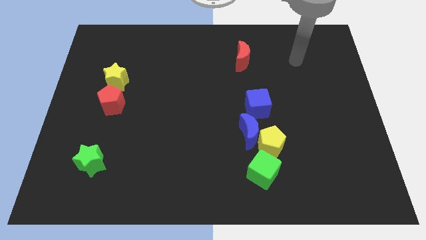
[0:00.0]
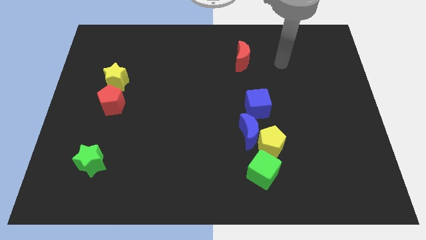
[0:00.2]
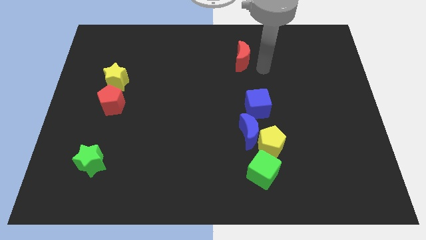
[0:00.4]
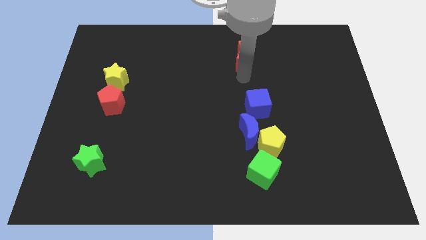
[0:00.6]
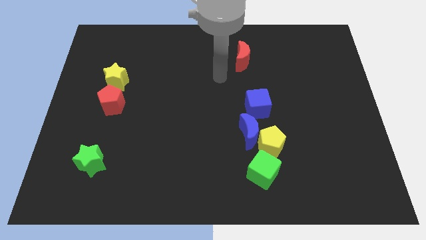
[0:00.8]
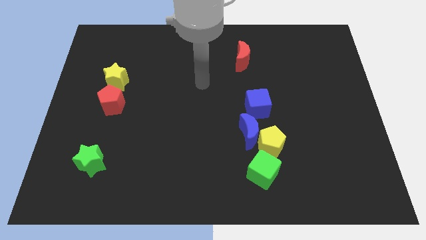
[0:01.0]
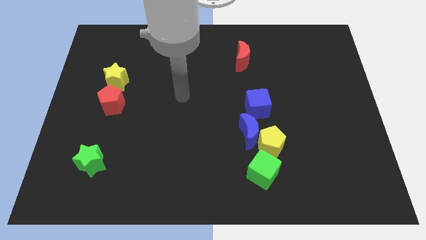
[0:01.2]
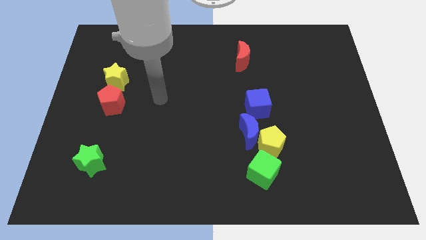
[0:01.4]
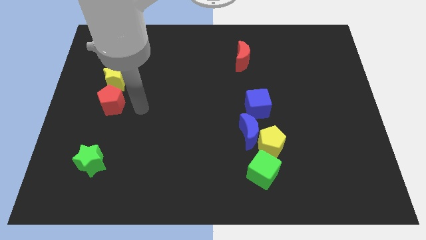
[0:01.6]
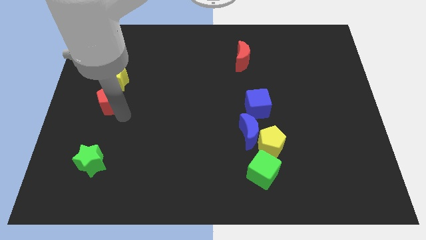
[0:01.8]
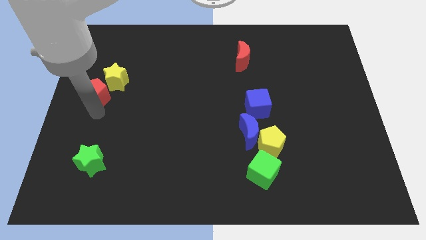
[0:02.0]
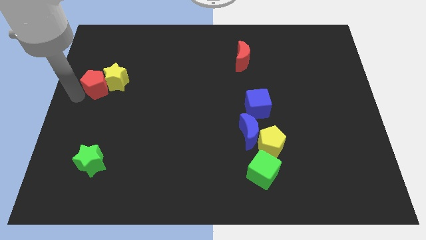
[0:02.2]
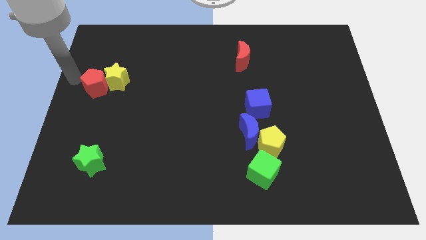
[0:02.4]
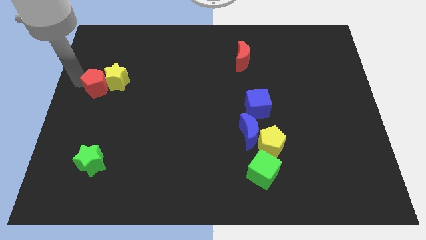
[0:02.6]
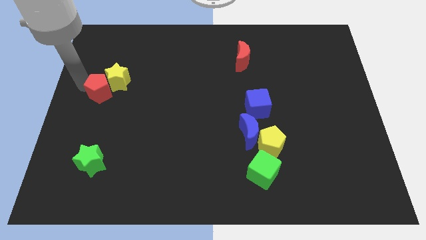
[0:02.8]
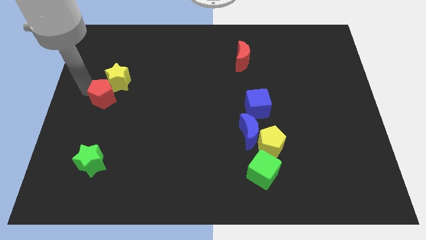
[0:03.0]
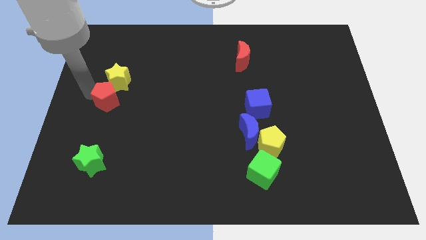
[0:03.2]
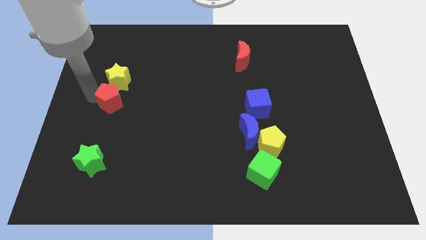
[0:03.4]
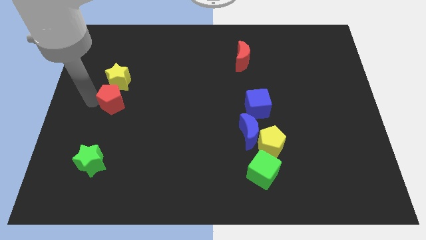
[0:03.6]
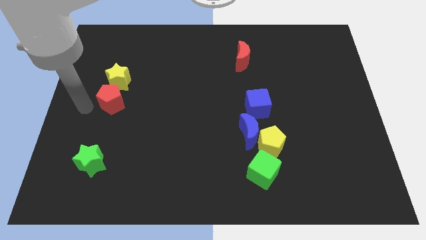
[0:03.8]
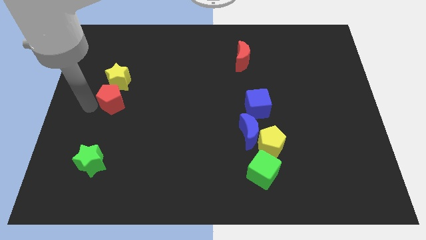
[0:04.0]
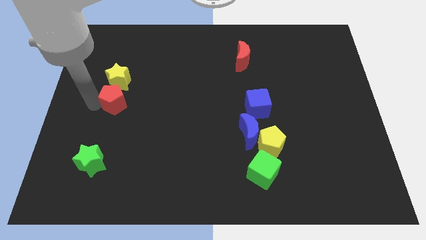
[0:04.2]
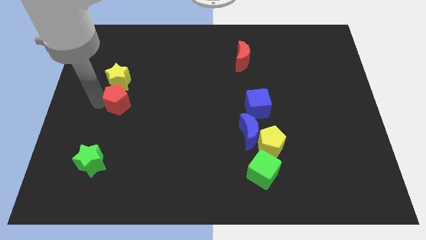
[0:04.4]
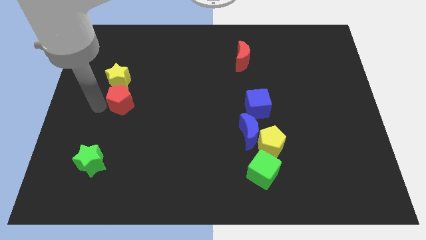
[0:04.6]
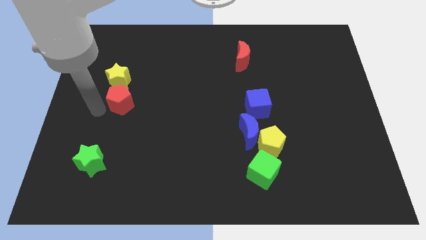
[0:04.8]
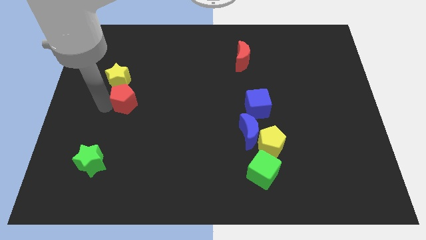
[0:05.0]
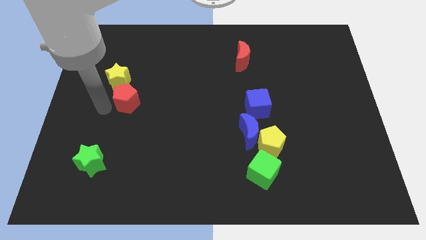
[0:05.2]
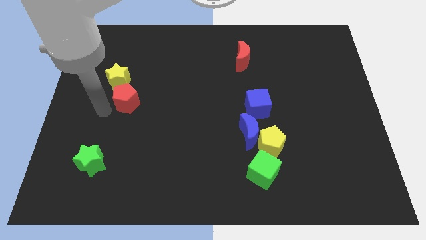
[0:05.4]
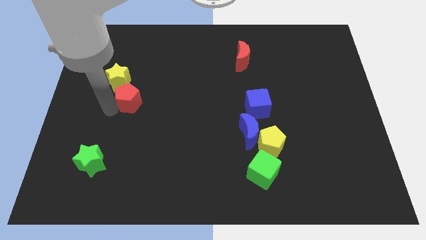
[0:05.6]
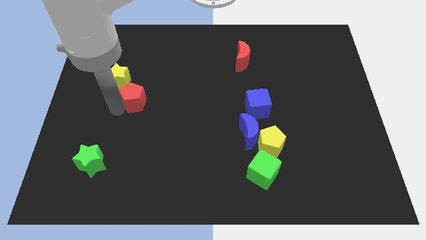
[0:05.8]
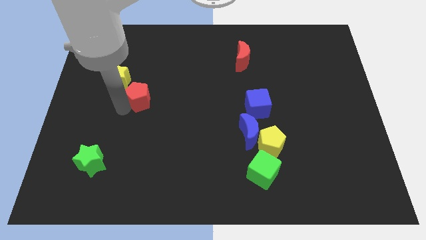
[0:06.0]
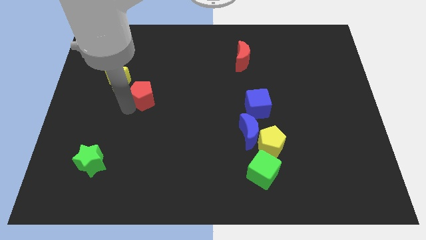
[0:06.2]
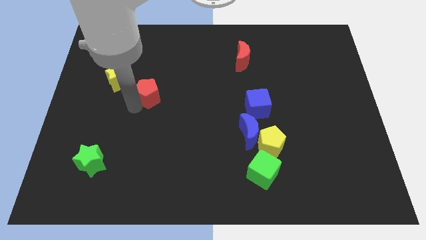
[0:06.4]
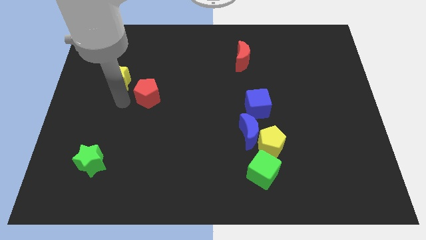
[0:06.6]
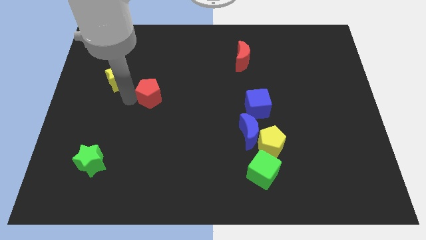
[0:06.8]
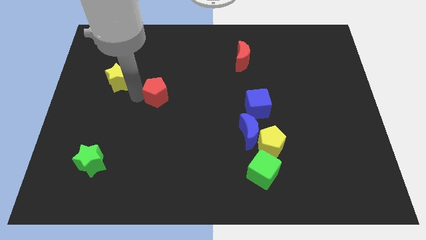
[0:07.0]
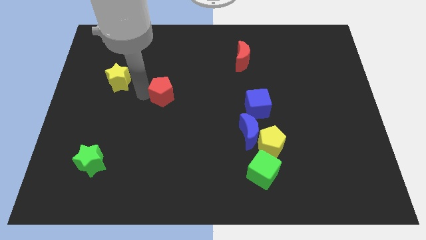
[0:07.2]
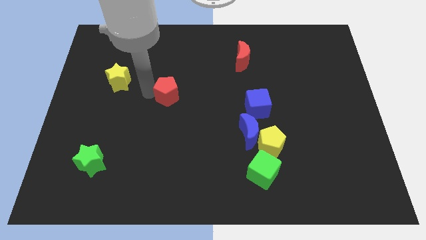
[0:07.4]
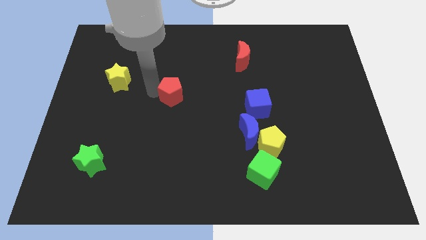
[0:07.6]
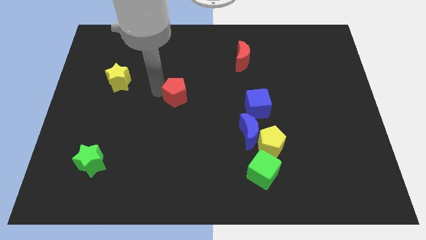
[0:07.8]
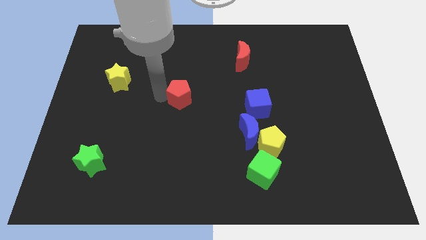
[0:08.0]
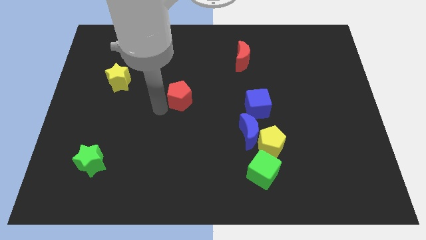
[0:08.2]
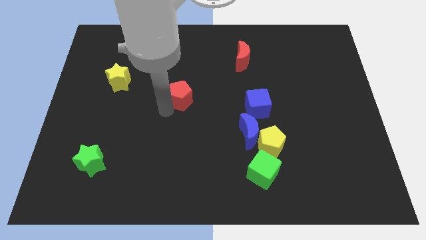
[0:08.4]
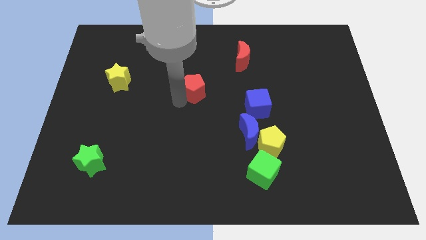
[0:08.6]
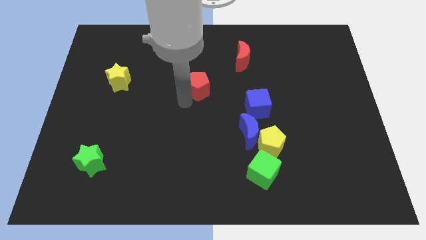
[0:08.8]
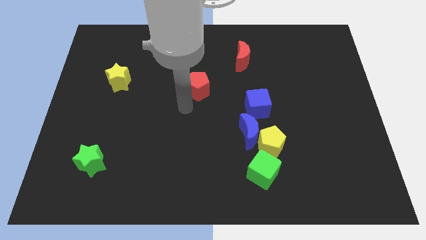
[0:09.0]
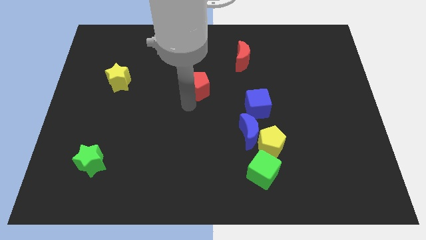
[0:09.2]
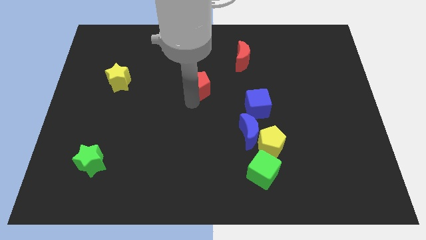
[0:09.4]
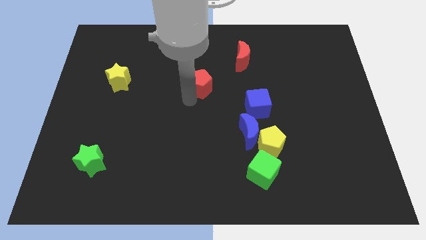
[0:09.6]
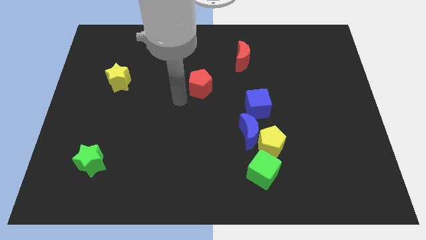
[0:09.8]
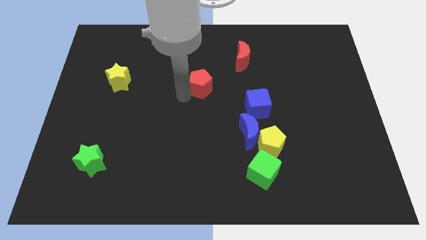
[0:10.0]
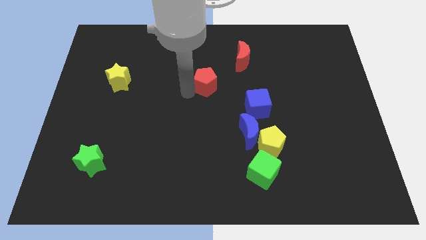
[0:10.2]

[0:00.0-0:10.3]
put the red pentagon diagonally down and to the left of the red moon

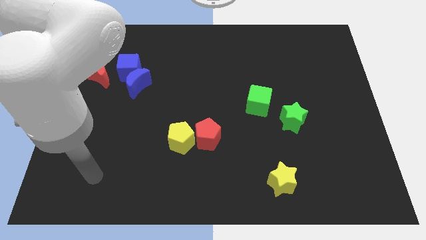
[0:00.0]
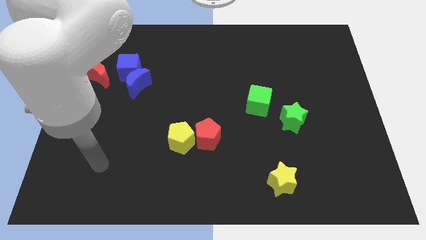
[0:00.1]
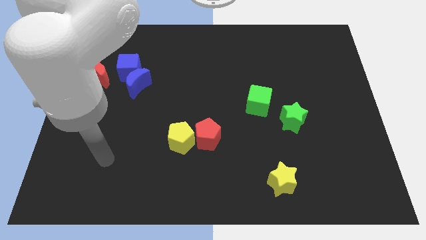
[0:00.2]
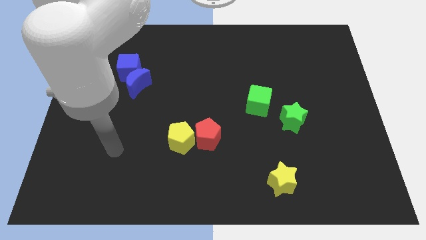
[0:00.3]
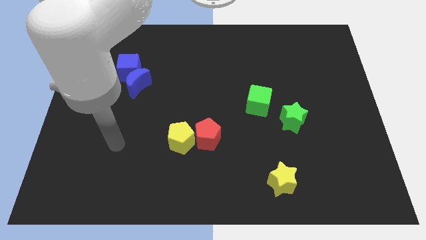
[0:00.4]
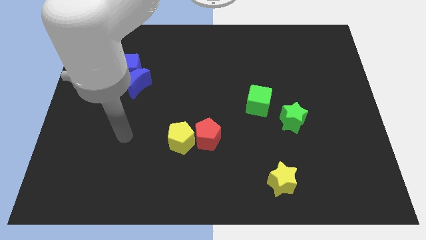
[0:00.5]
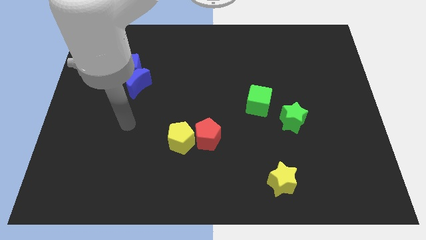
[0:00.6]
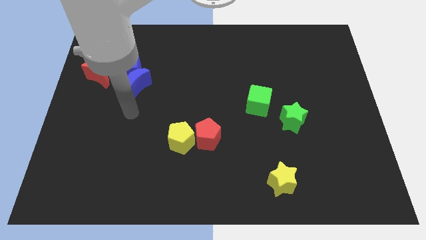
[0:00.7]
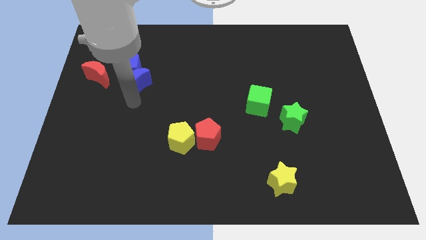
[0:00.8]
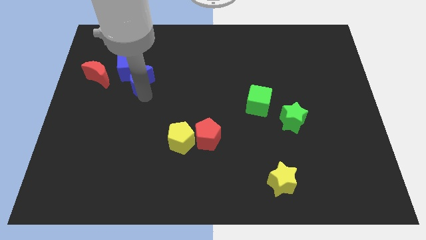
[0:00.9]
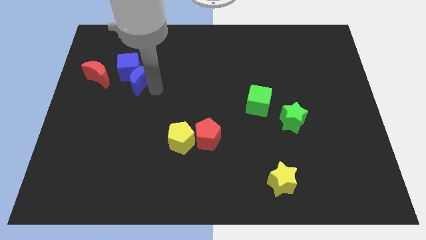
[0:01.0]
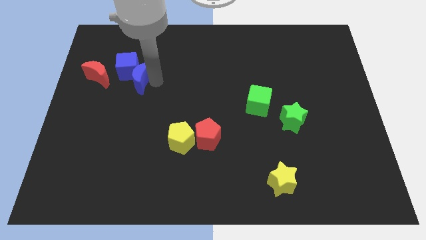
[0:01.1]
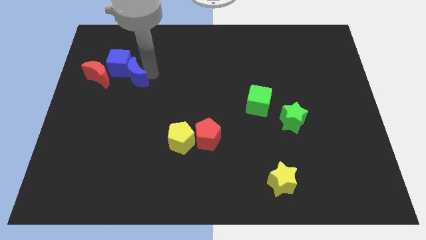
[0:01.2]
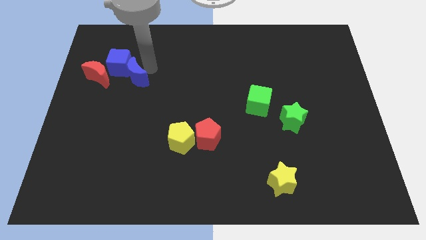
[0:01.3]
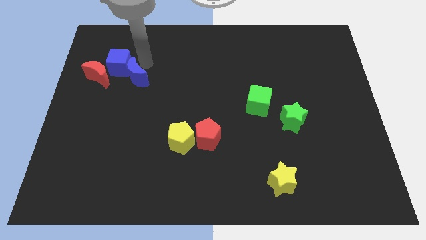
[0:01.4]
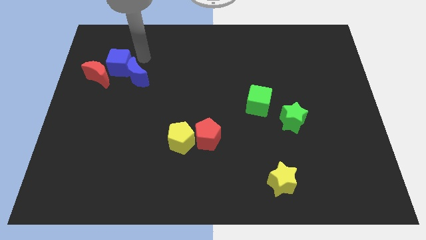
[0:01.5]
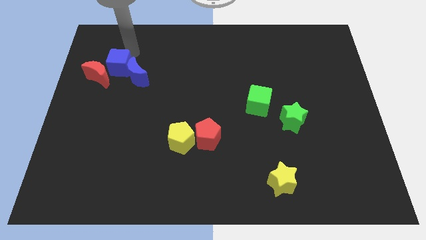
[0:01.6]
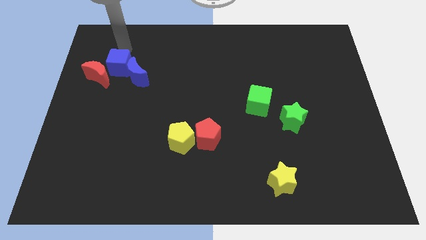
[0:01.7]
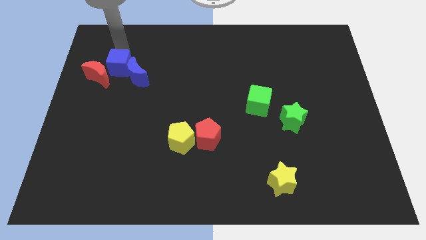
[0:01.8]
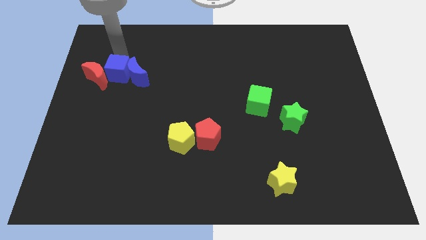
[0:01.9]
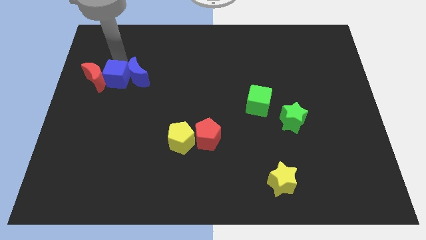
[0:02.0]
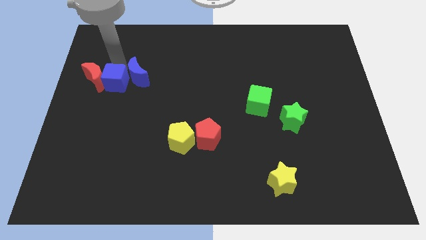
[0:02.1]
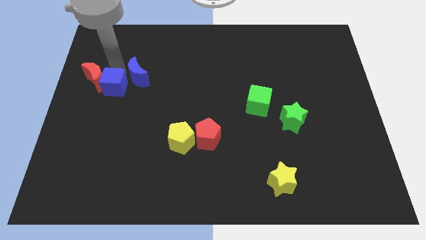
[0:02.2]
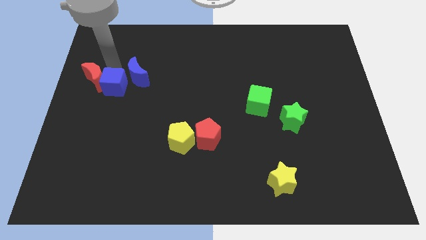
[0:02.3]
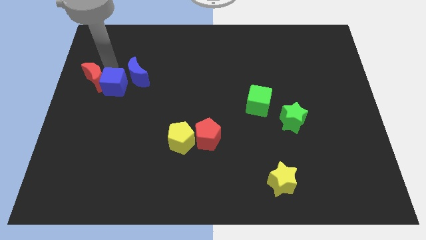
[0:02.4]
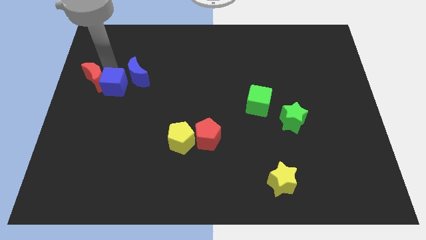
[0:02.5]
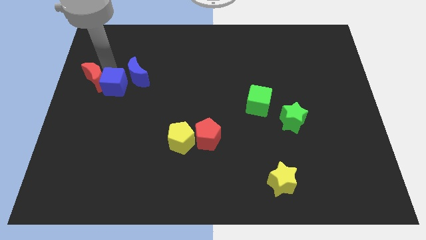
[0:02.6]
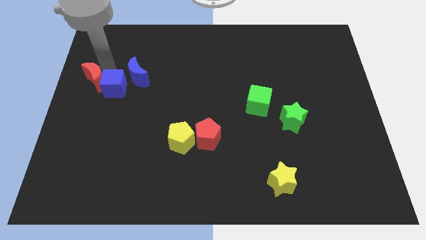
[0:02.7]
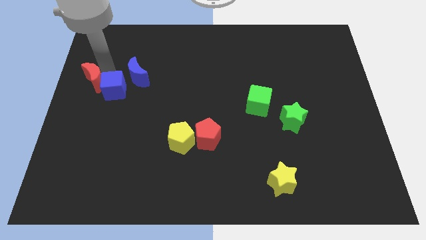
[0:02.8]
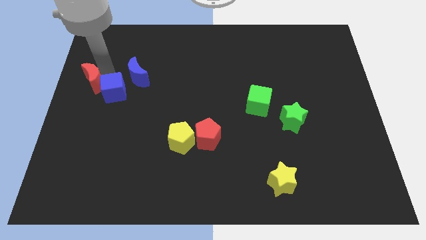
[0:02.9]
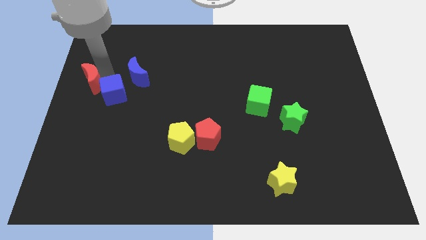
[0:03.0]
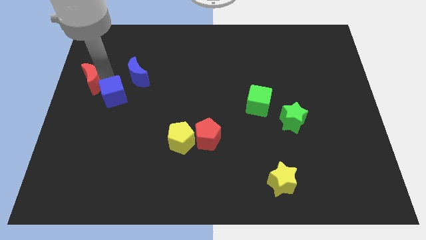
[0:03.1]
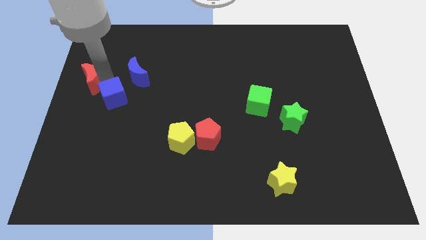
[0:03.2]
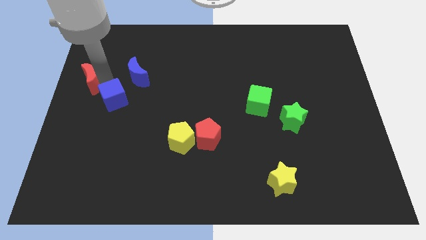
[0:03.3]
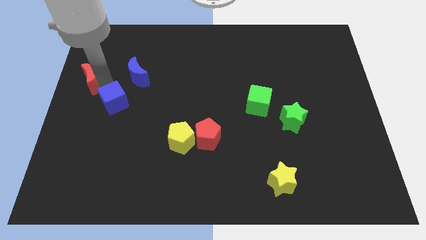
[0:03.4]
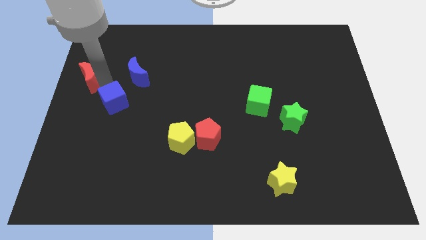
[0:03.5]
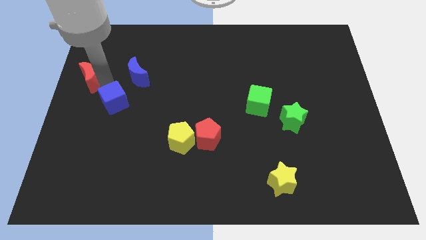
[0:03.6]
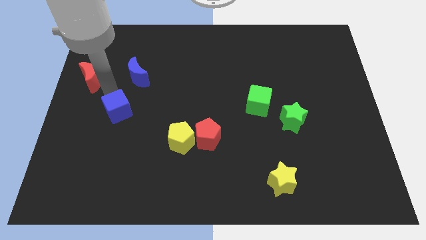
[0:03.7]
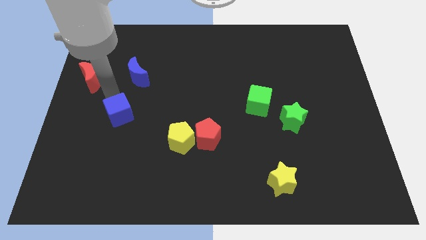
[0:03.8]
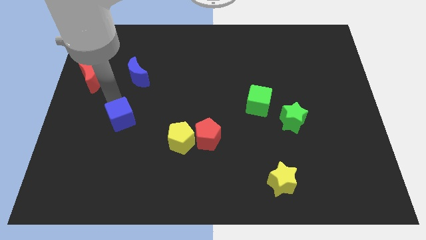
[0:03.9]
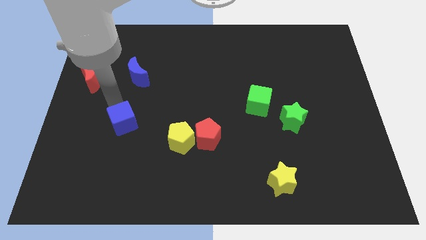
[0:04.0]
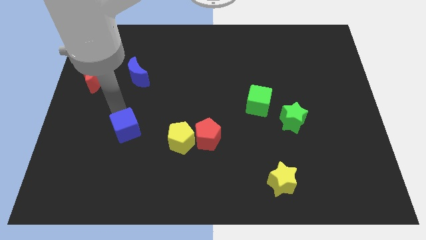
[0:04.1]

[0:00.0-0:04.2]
slide the blue cube to the left of the yellow pentagon
